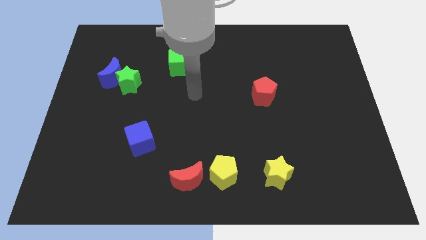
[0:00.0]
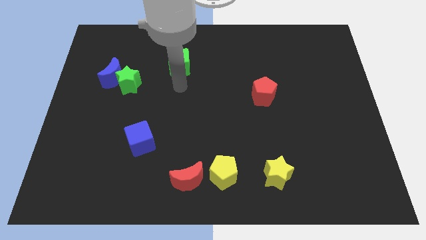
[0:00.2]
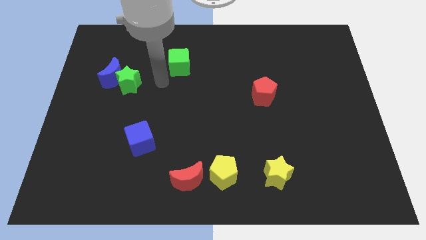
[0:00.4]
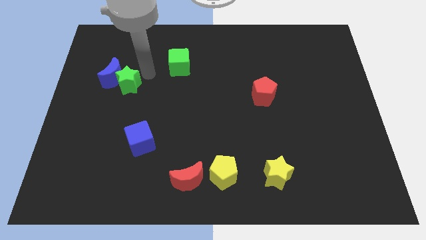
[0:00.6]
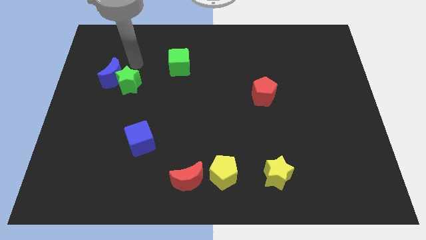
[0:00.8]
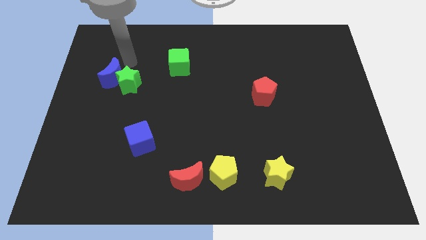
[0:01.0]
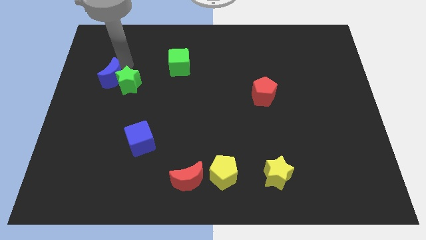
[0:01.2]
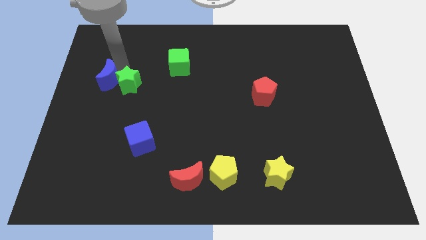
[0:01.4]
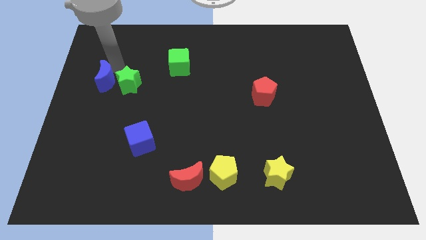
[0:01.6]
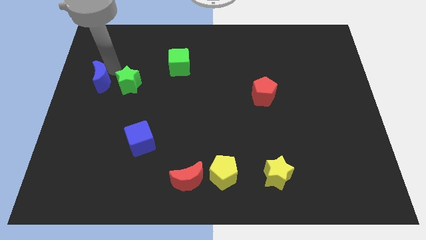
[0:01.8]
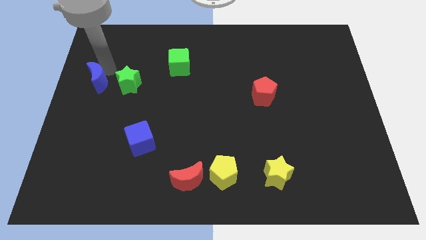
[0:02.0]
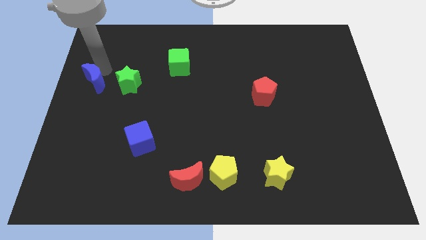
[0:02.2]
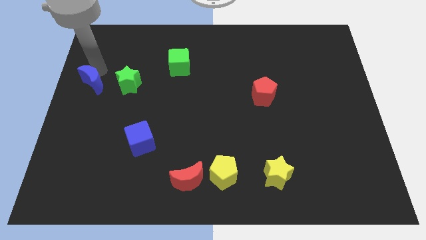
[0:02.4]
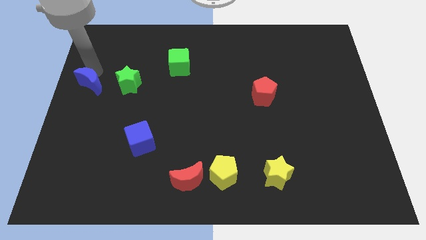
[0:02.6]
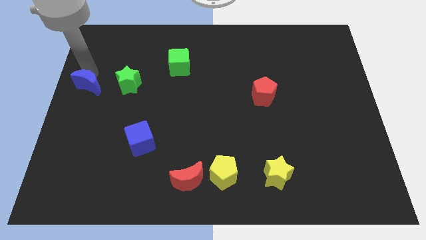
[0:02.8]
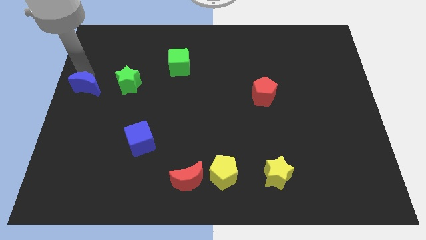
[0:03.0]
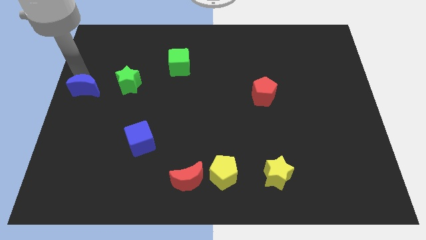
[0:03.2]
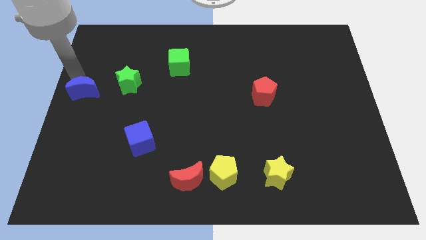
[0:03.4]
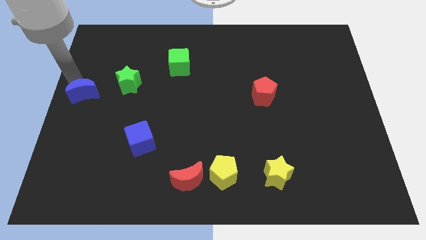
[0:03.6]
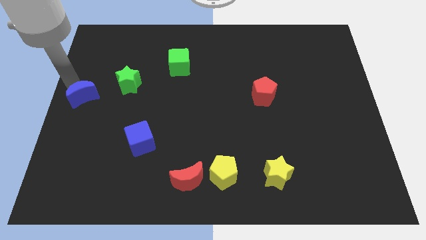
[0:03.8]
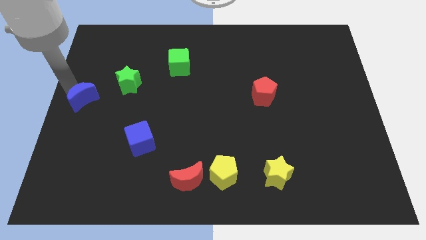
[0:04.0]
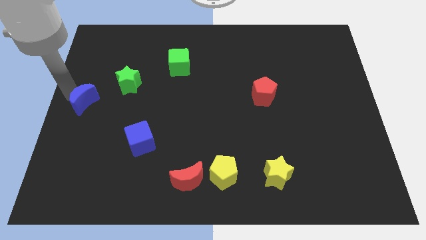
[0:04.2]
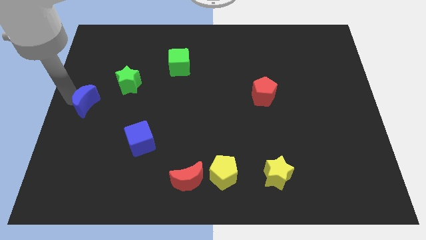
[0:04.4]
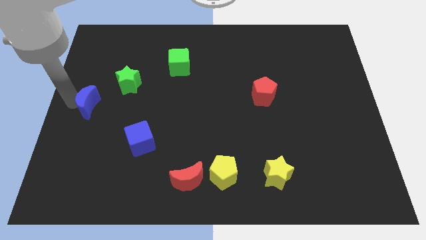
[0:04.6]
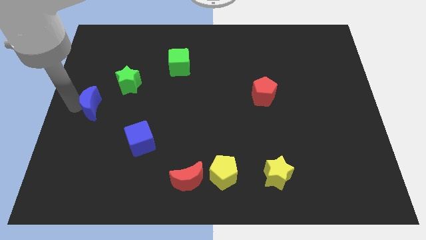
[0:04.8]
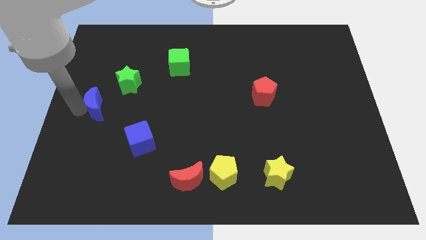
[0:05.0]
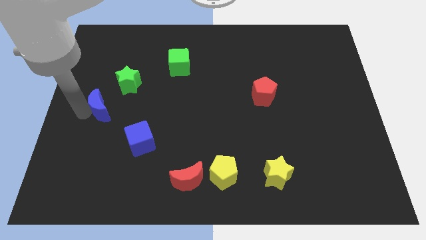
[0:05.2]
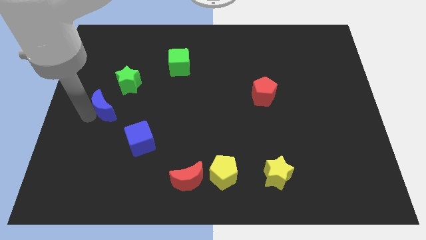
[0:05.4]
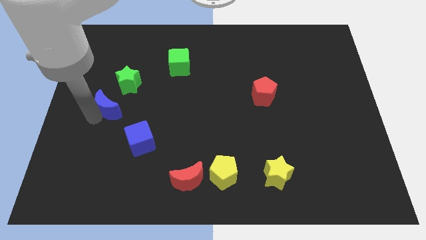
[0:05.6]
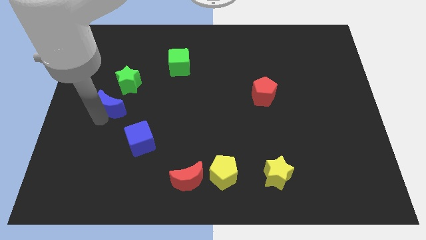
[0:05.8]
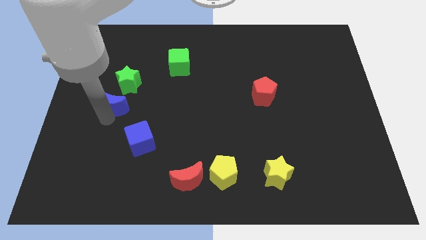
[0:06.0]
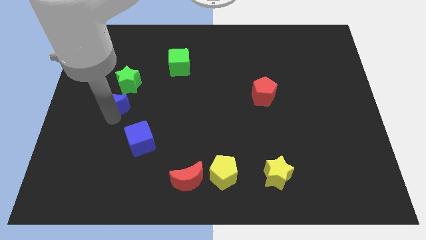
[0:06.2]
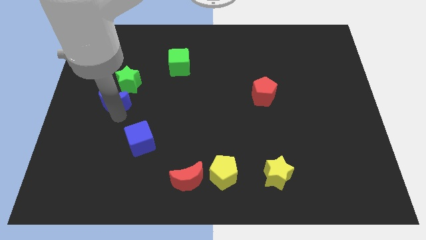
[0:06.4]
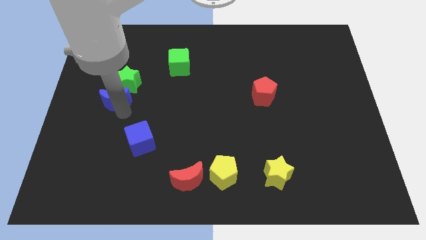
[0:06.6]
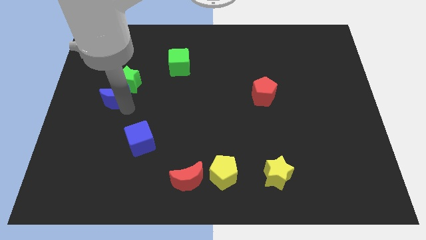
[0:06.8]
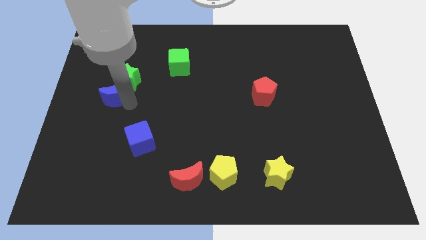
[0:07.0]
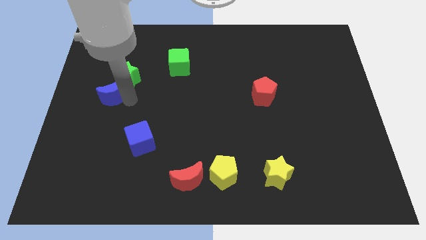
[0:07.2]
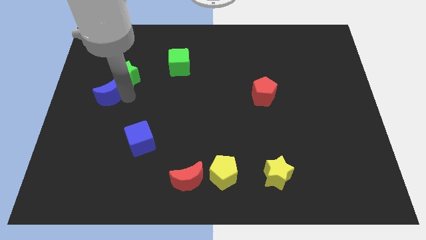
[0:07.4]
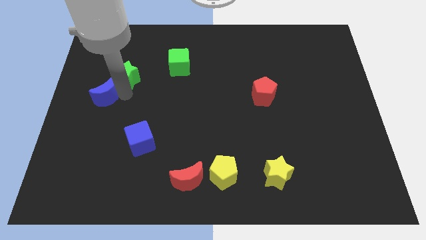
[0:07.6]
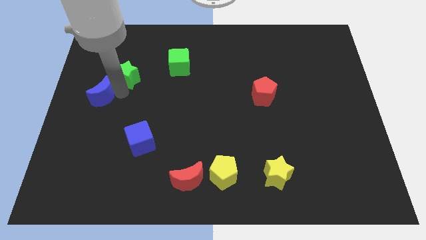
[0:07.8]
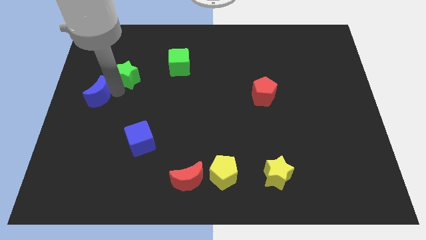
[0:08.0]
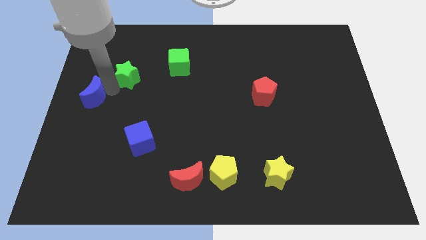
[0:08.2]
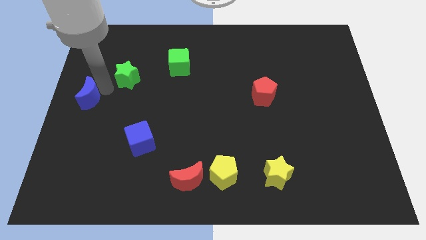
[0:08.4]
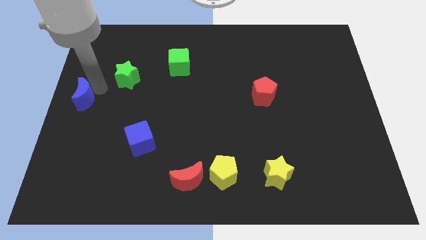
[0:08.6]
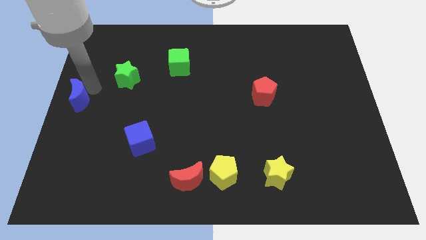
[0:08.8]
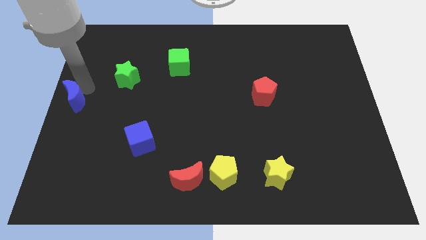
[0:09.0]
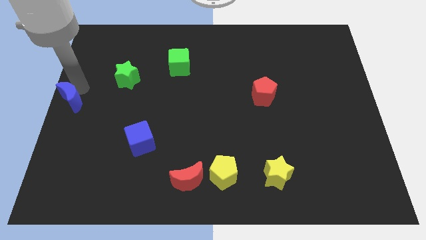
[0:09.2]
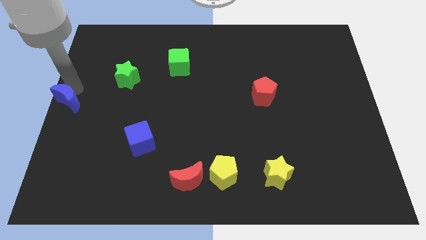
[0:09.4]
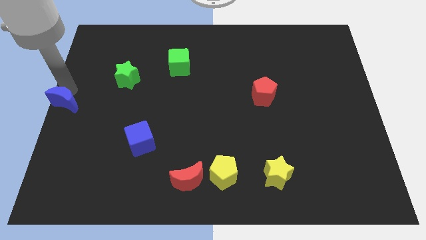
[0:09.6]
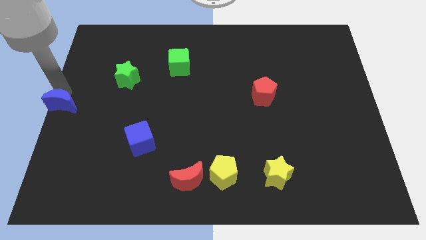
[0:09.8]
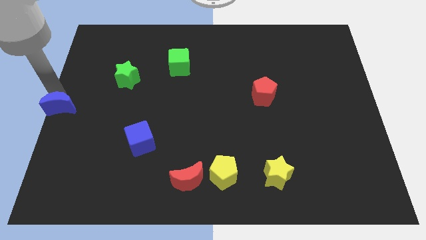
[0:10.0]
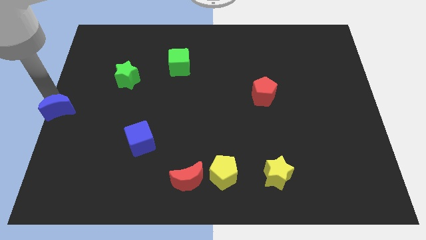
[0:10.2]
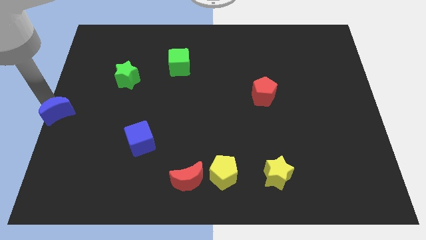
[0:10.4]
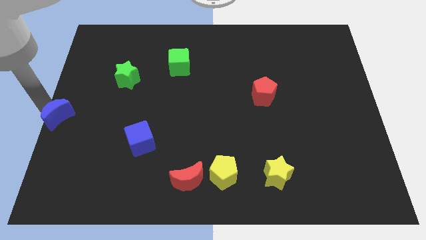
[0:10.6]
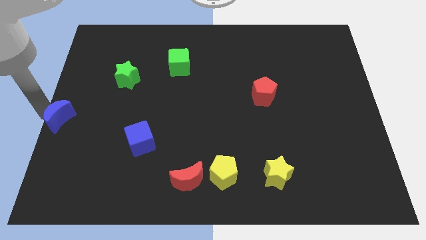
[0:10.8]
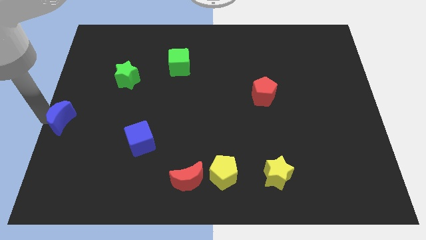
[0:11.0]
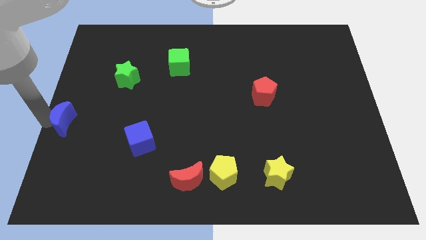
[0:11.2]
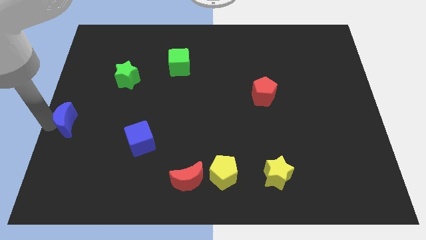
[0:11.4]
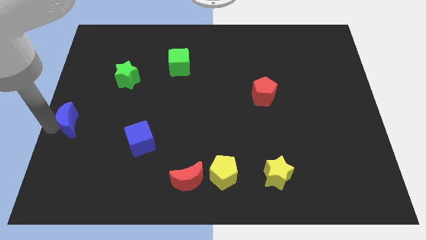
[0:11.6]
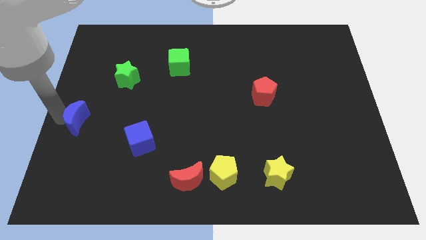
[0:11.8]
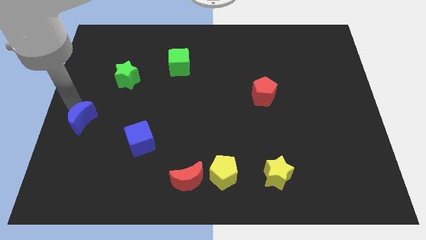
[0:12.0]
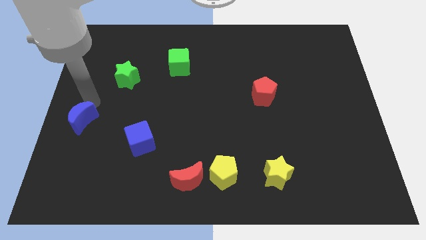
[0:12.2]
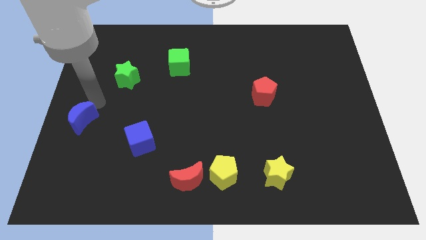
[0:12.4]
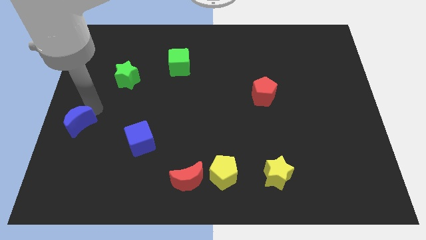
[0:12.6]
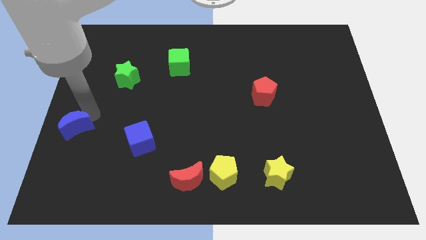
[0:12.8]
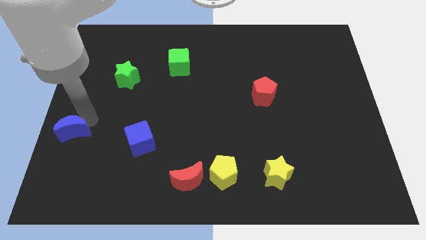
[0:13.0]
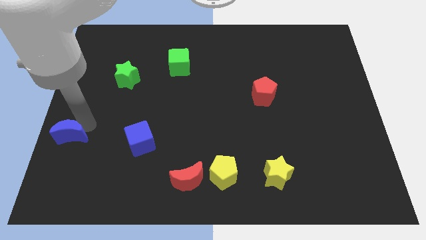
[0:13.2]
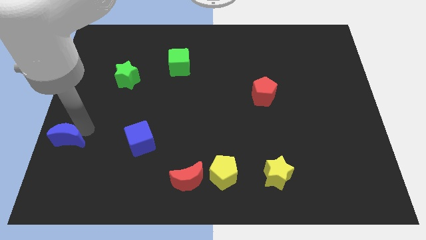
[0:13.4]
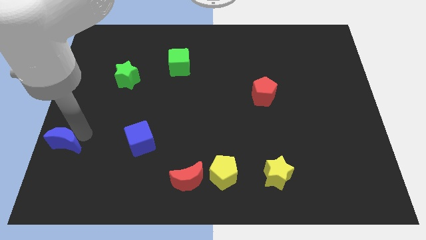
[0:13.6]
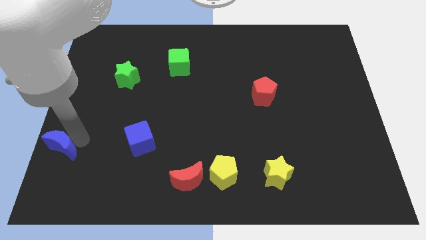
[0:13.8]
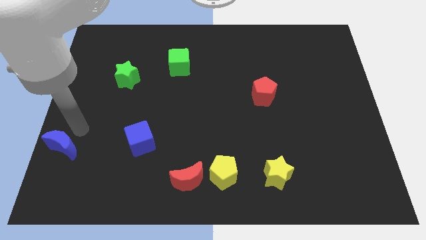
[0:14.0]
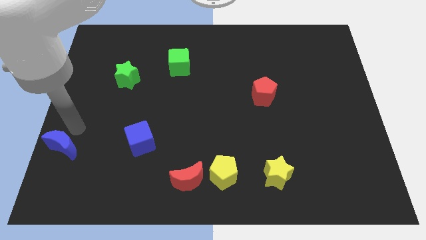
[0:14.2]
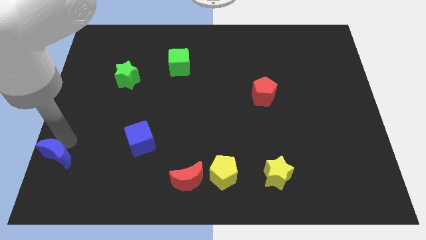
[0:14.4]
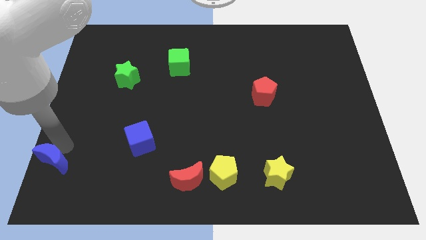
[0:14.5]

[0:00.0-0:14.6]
slide the blue moon to the bottom left corner
